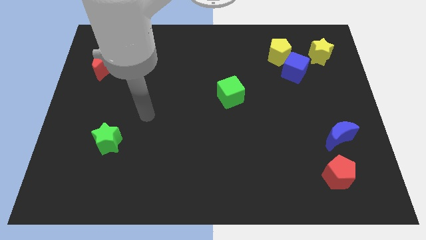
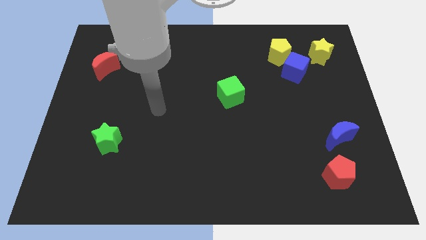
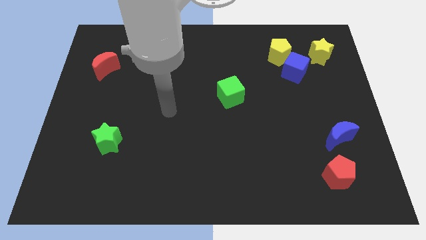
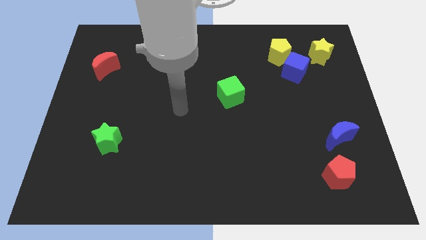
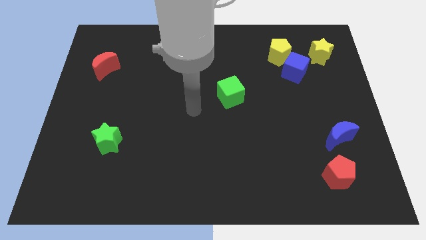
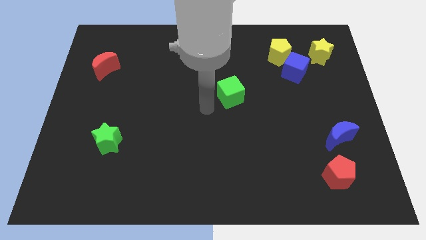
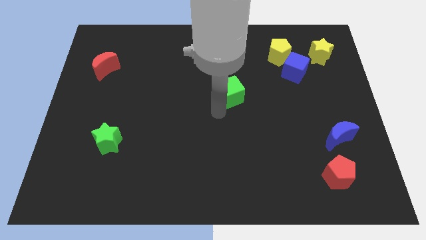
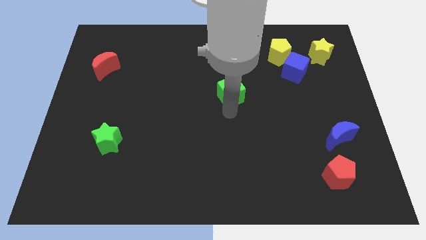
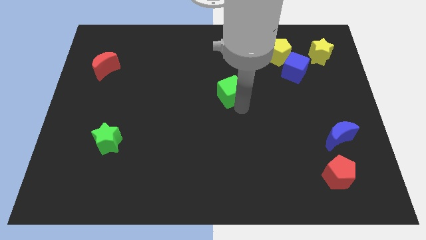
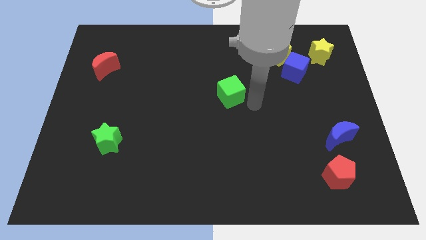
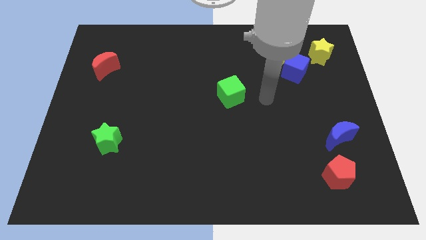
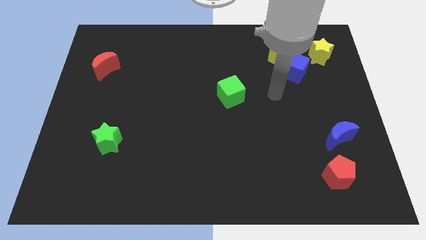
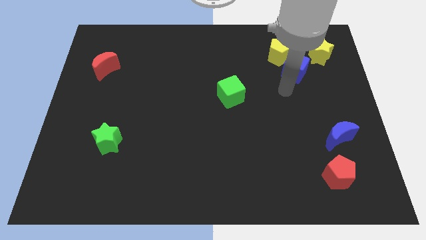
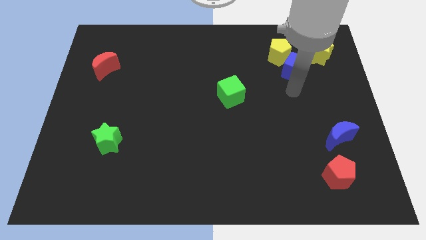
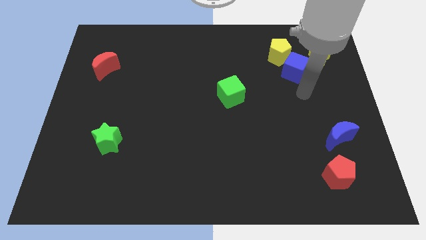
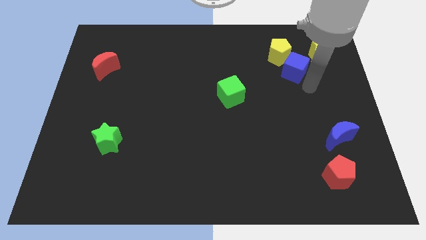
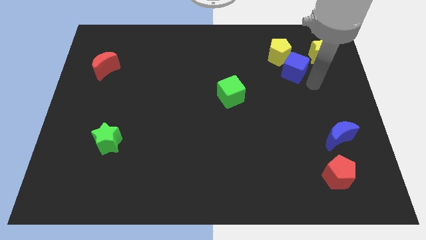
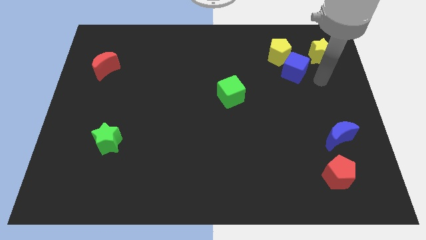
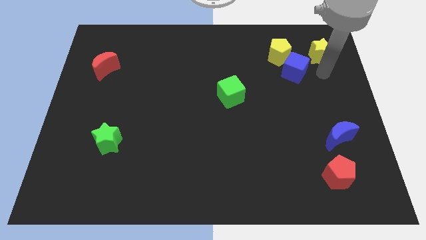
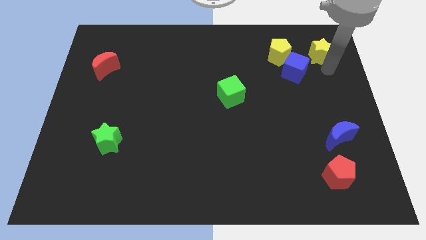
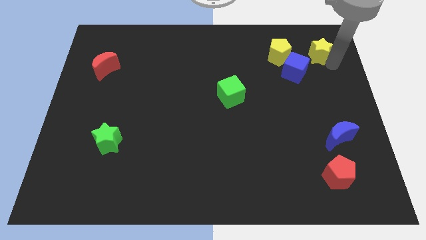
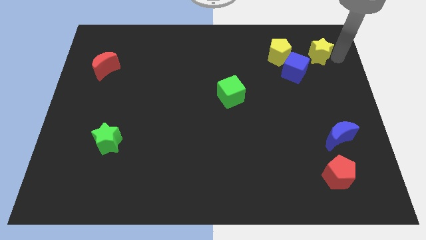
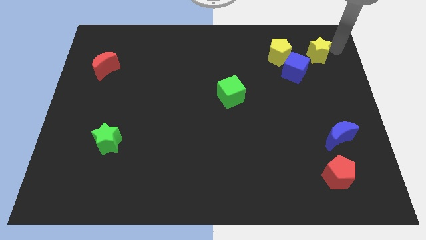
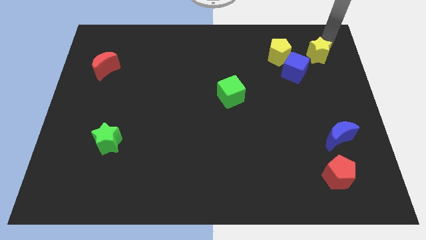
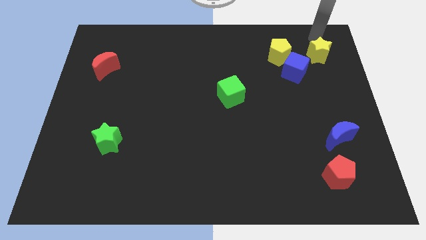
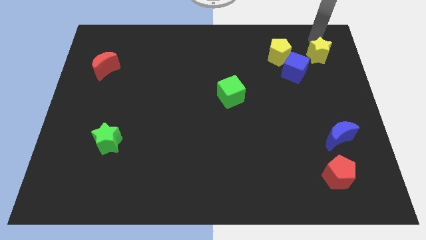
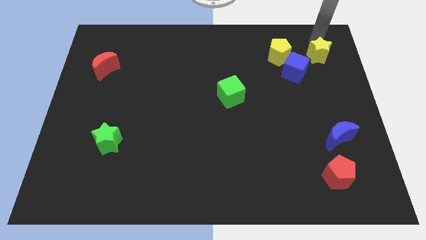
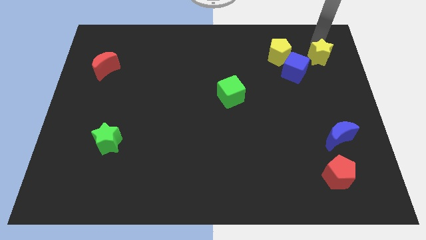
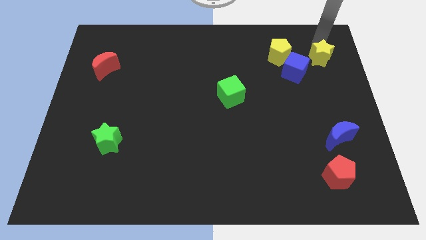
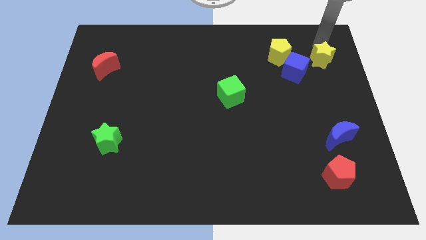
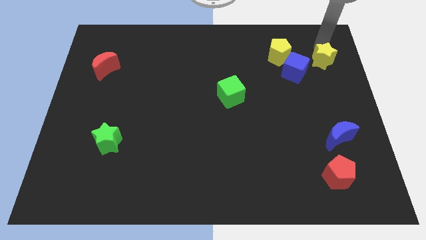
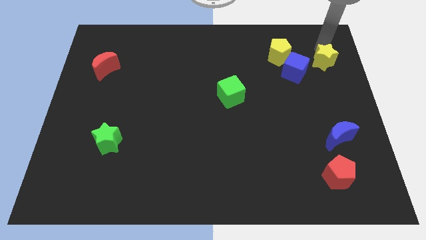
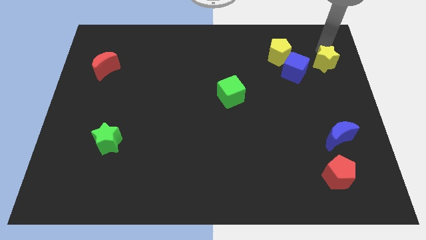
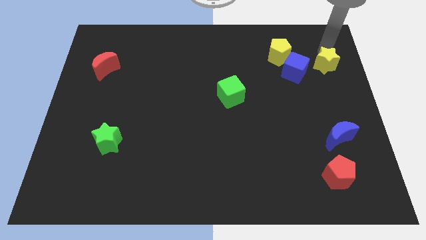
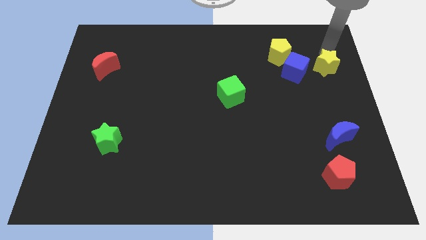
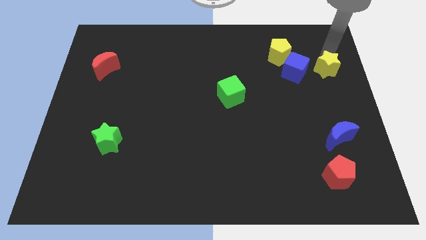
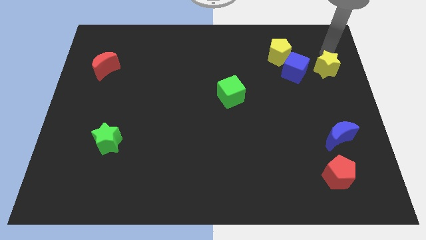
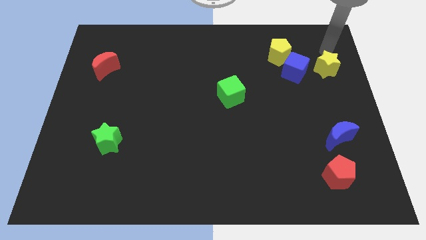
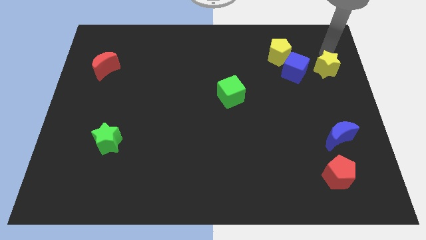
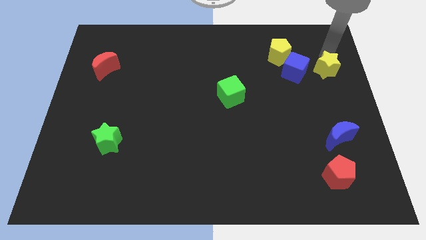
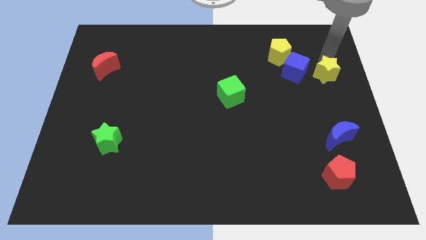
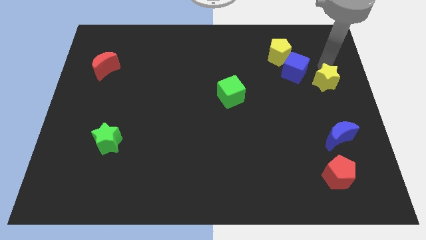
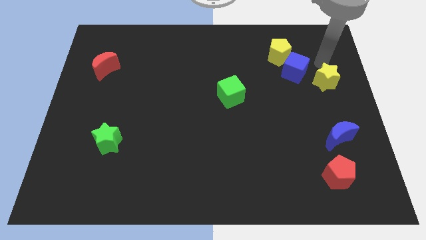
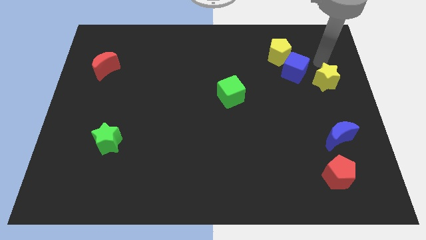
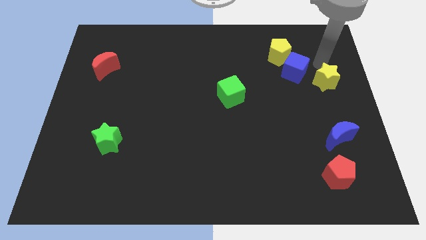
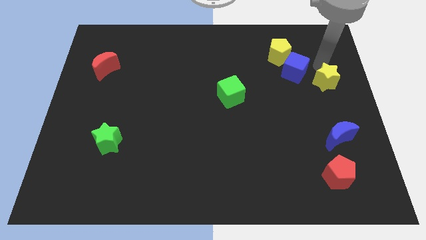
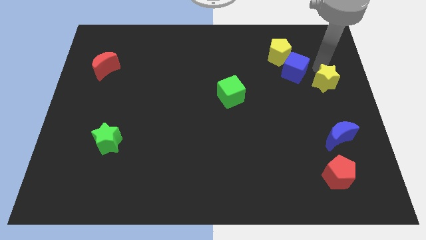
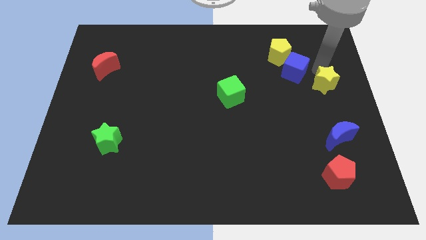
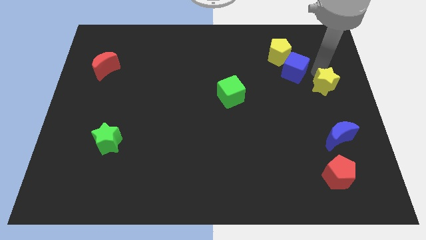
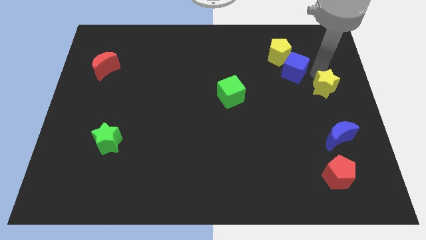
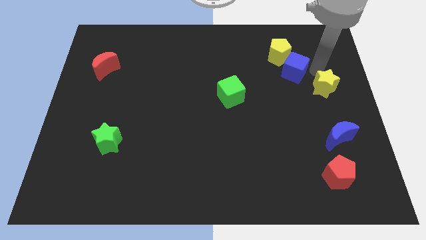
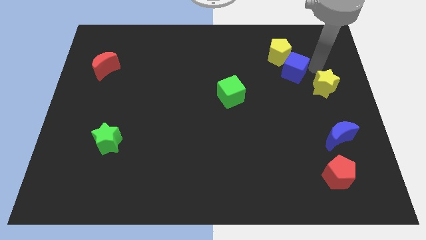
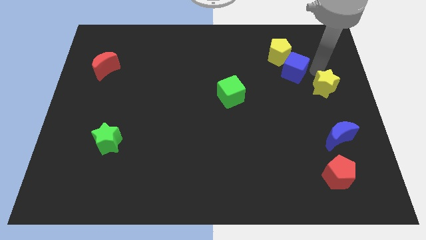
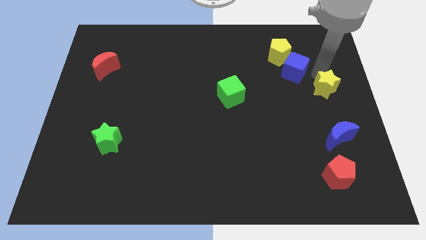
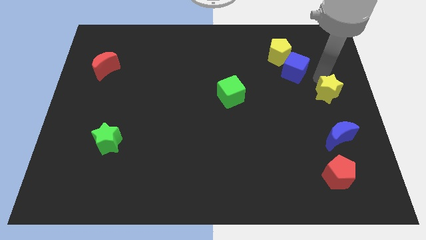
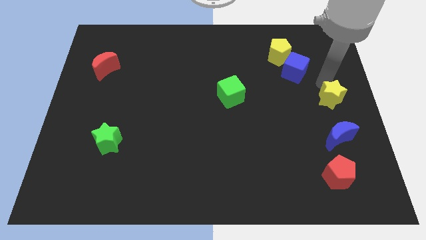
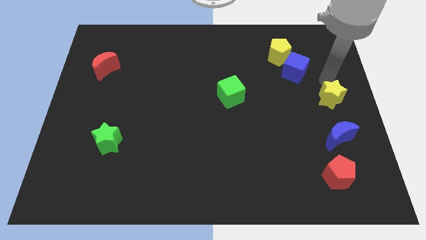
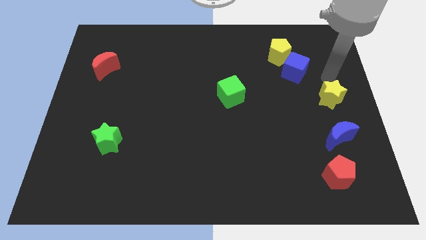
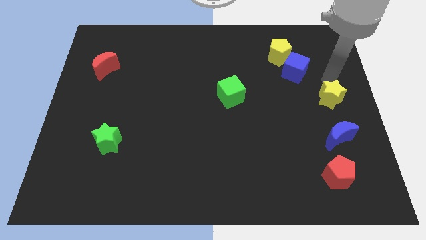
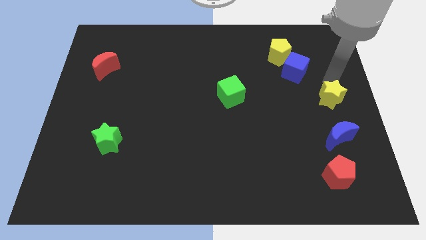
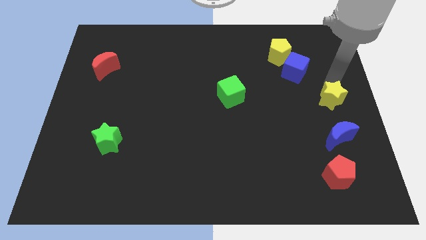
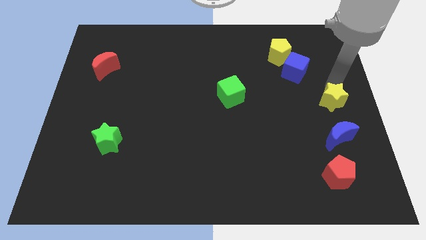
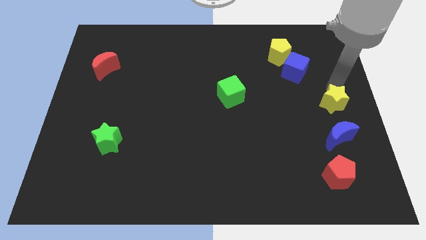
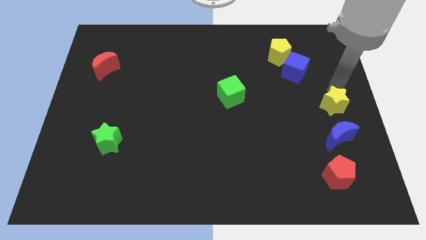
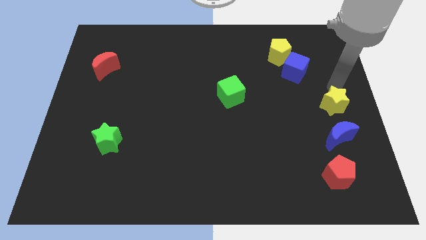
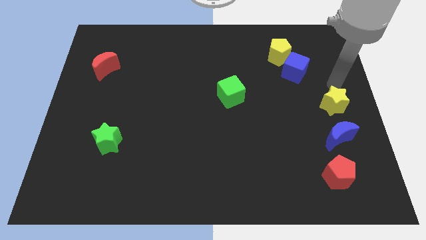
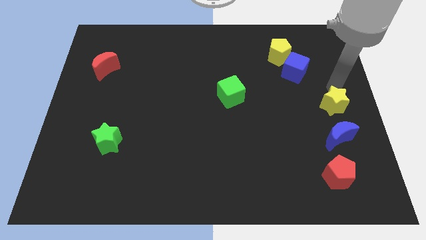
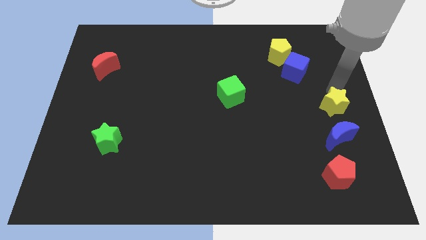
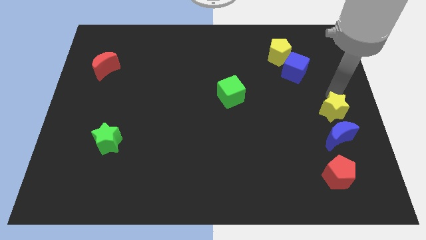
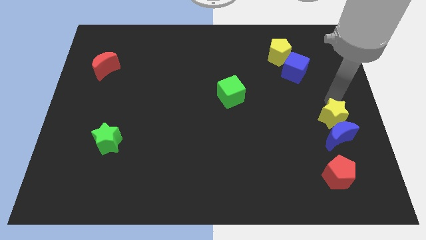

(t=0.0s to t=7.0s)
push the yellow star close to the blue moon

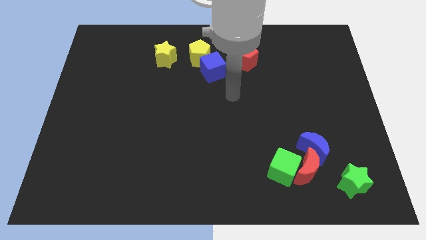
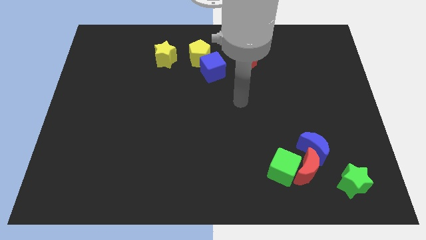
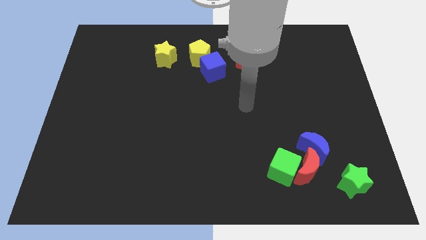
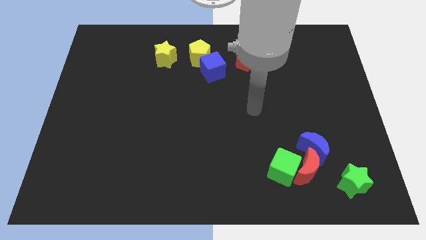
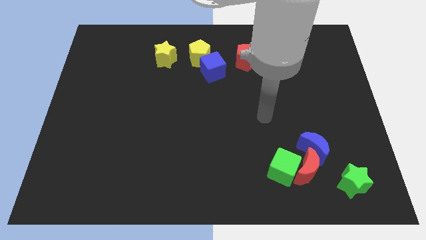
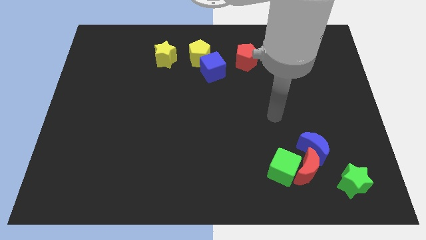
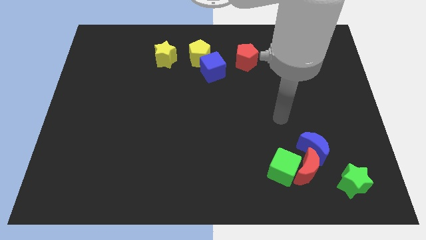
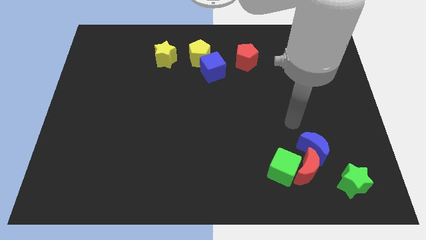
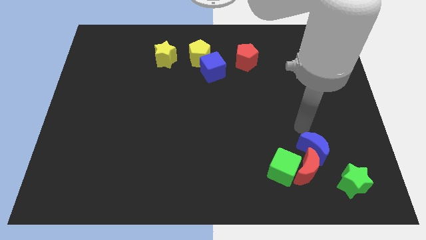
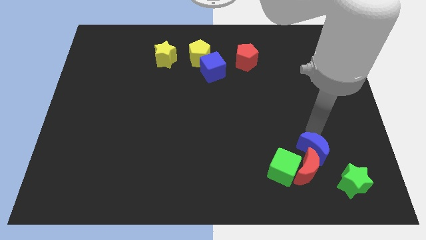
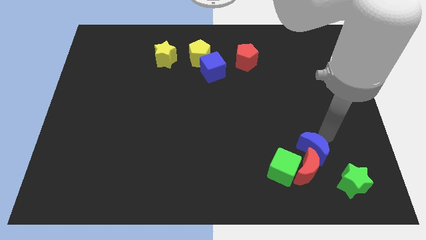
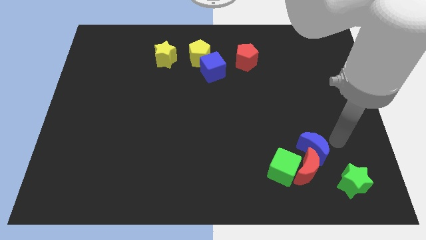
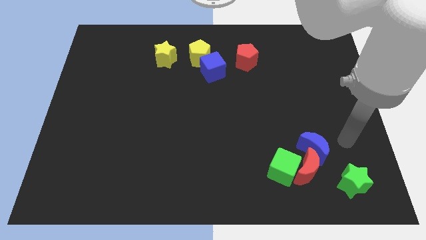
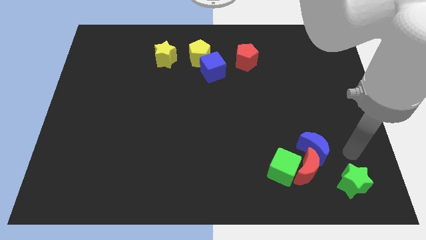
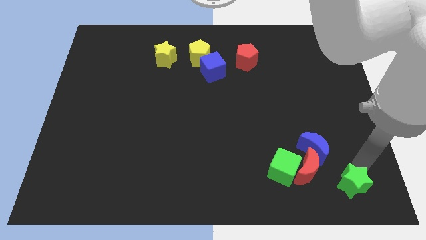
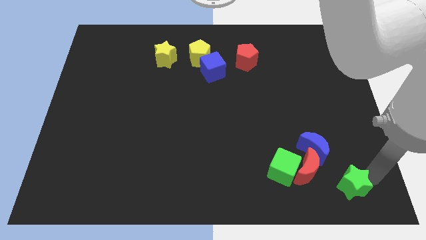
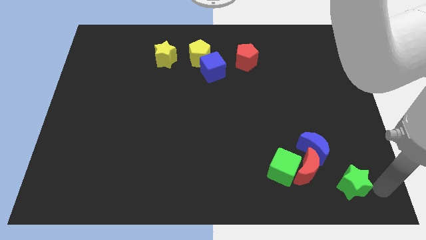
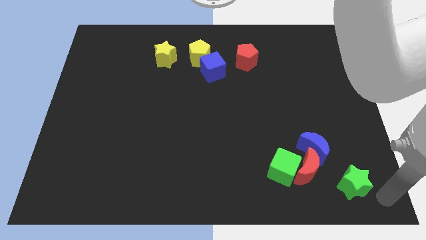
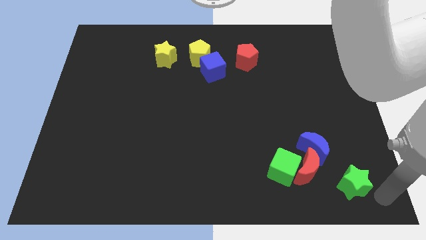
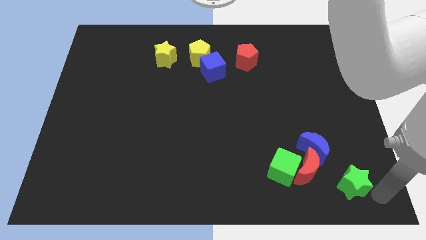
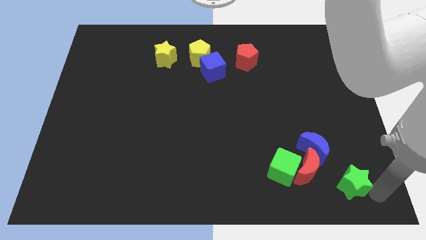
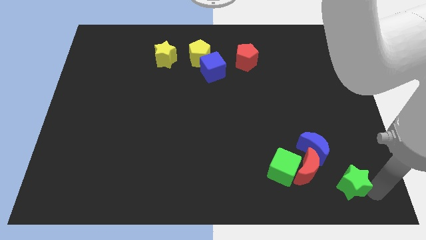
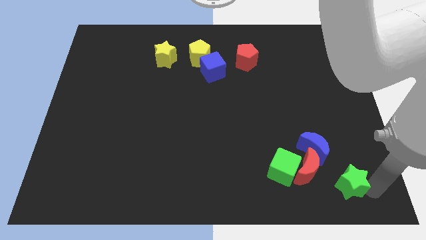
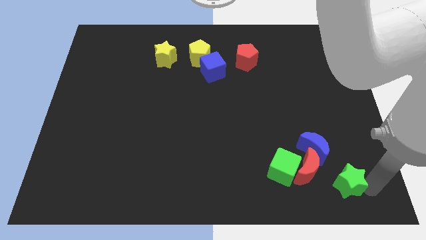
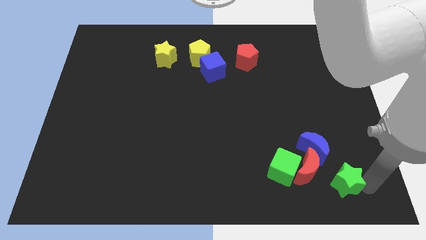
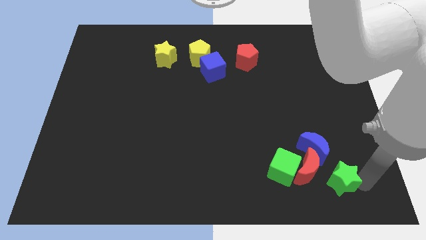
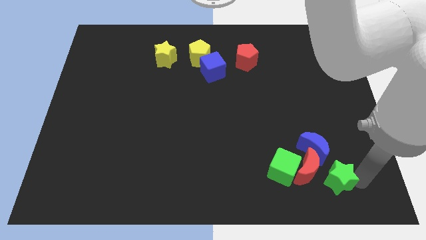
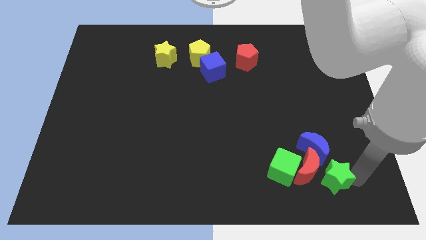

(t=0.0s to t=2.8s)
push the green star next to the red moon
